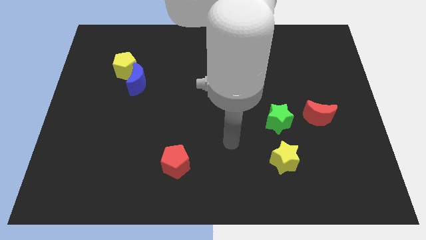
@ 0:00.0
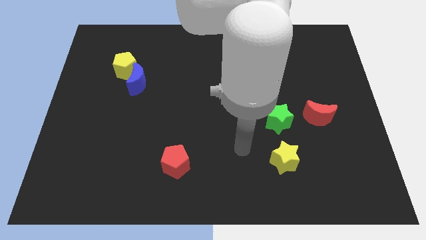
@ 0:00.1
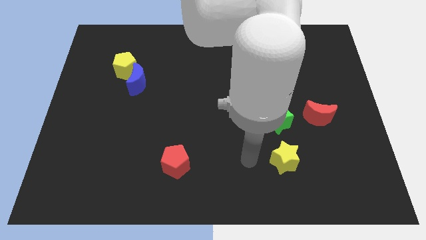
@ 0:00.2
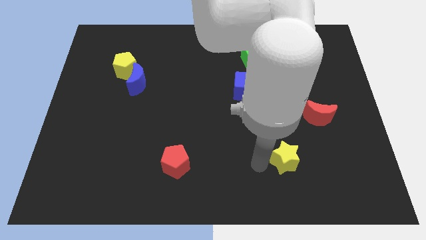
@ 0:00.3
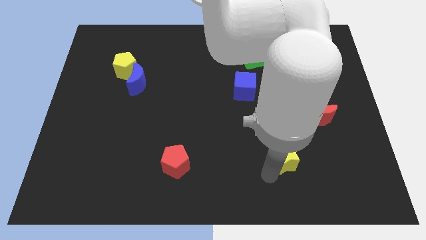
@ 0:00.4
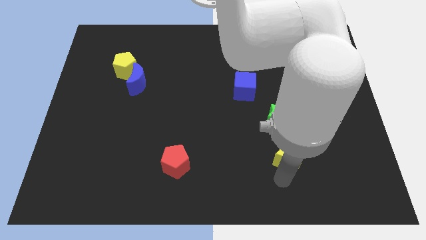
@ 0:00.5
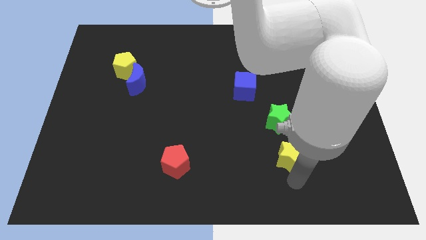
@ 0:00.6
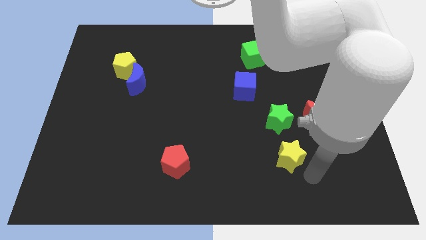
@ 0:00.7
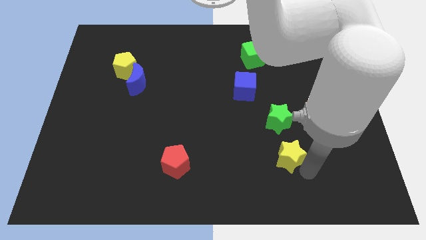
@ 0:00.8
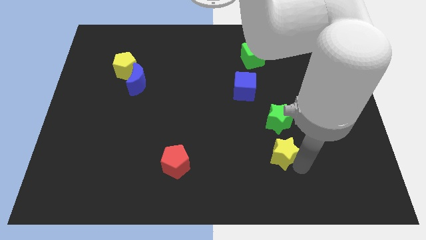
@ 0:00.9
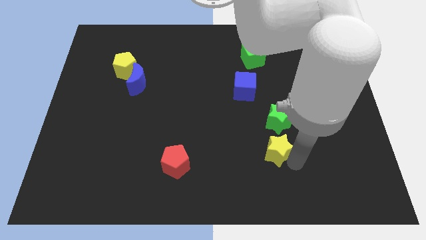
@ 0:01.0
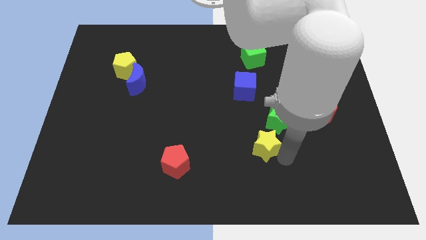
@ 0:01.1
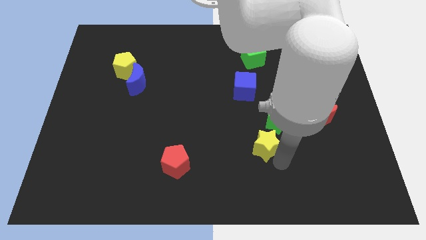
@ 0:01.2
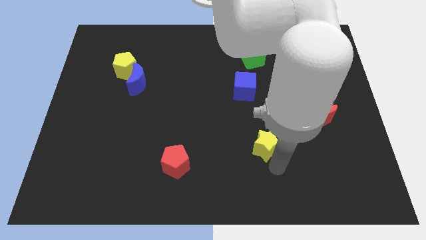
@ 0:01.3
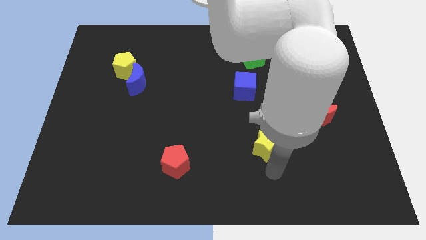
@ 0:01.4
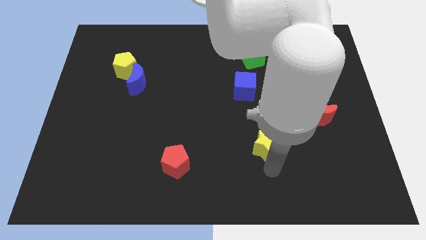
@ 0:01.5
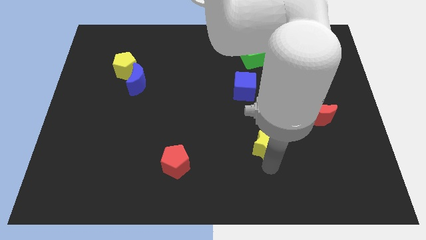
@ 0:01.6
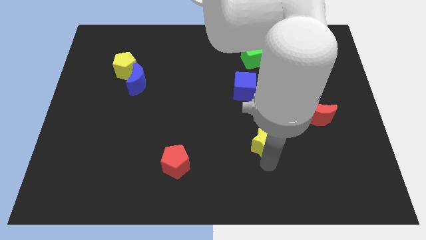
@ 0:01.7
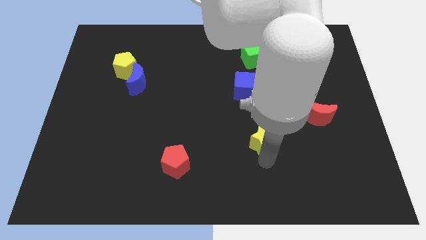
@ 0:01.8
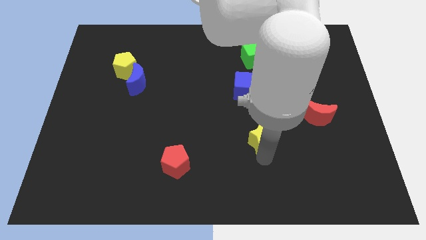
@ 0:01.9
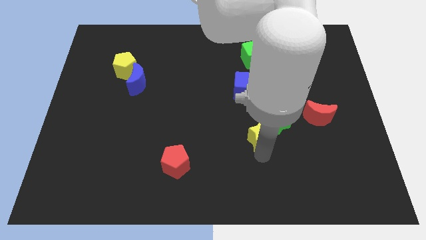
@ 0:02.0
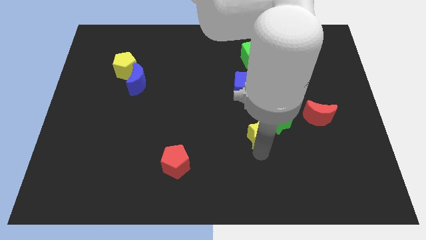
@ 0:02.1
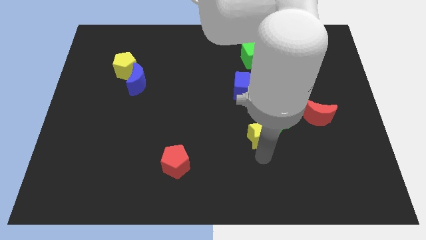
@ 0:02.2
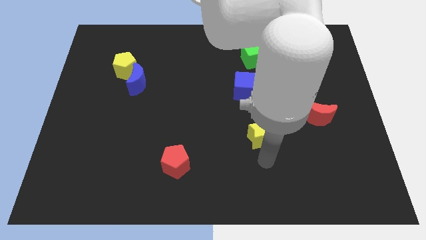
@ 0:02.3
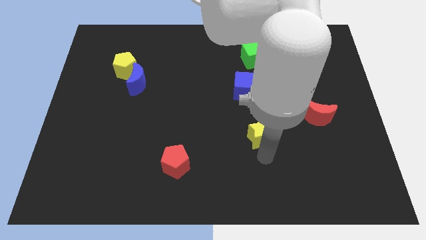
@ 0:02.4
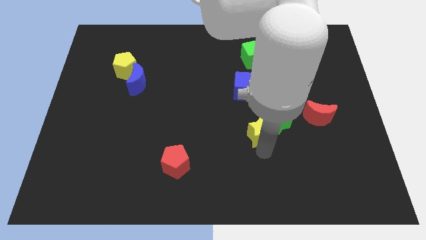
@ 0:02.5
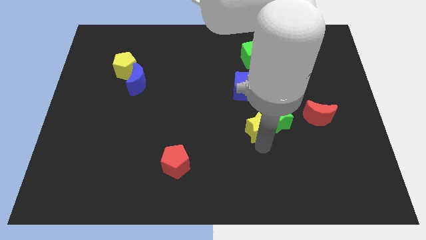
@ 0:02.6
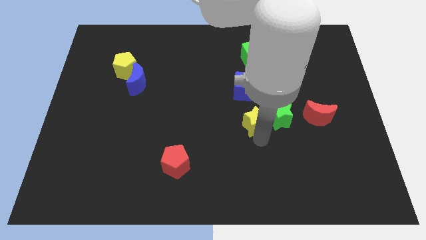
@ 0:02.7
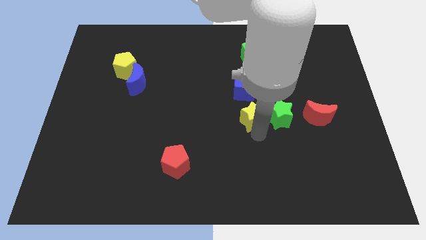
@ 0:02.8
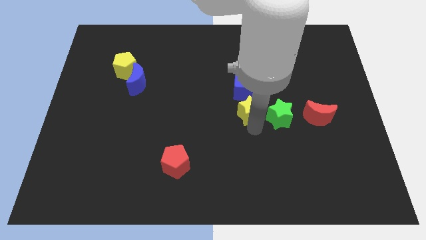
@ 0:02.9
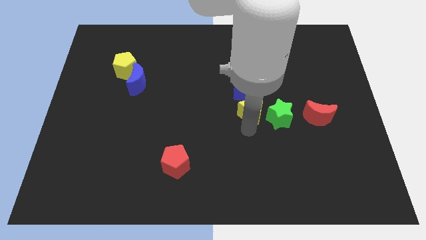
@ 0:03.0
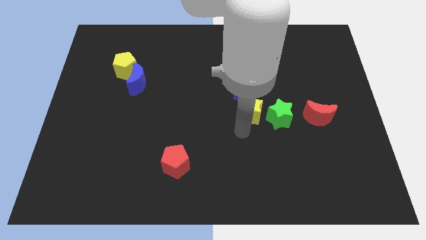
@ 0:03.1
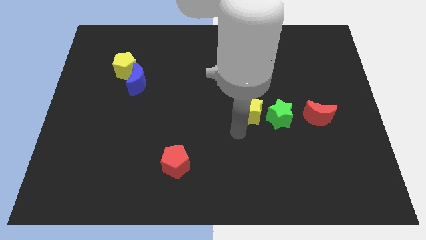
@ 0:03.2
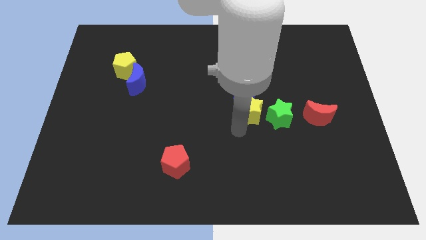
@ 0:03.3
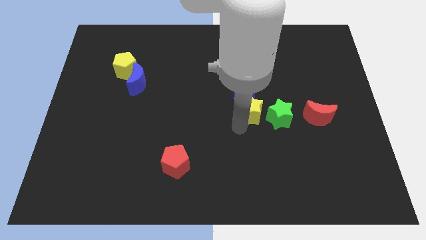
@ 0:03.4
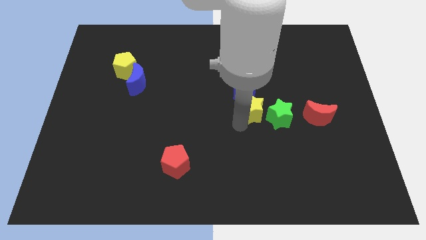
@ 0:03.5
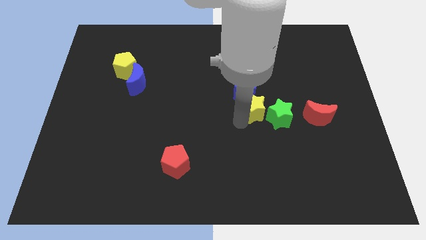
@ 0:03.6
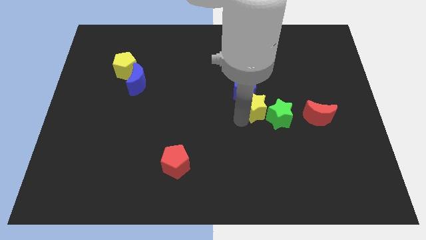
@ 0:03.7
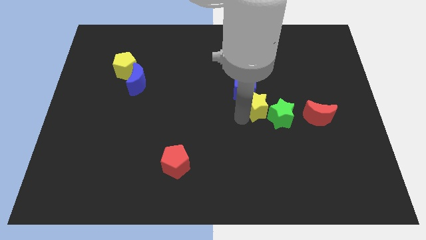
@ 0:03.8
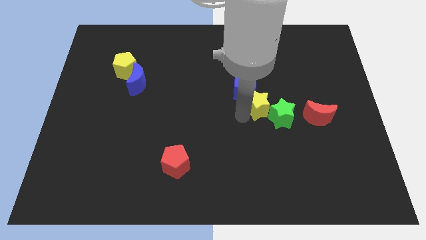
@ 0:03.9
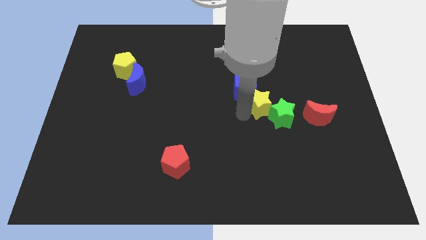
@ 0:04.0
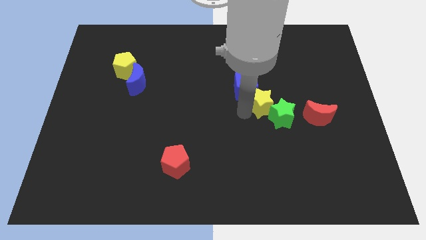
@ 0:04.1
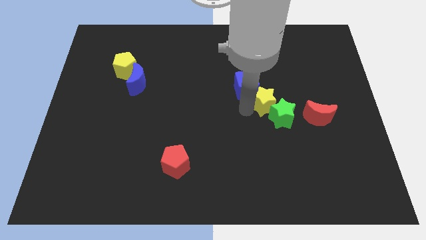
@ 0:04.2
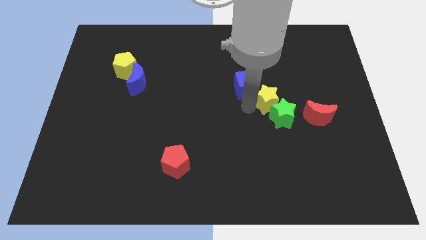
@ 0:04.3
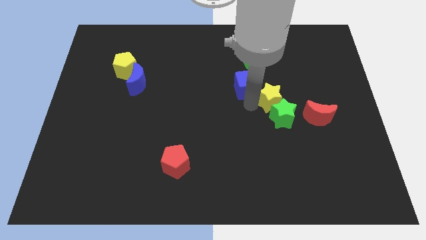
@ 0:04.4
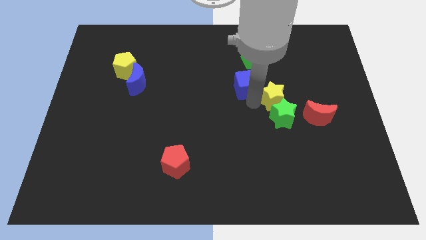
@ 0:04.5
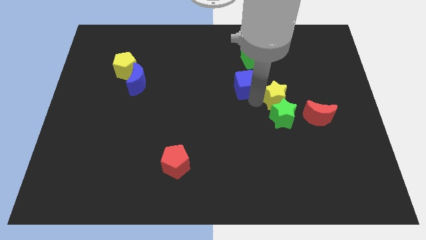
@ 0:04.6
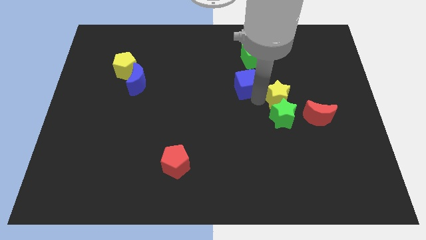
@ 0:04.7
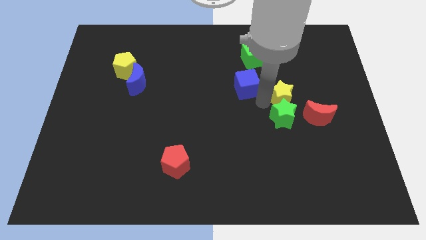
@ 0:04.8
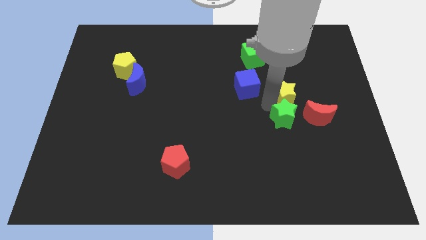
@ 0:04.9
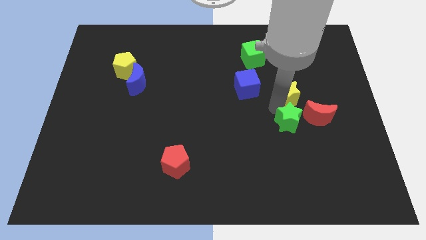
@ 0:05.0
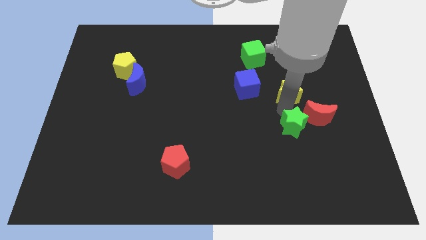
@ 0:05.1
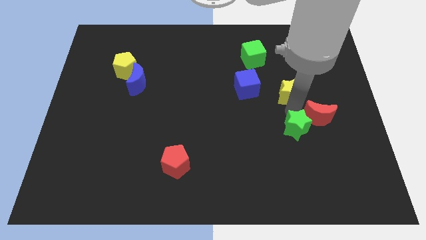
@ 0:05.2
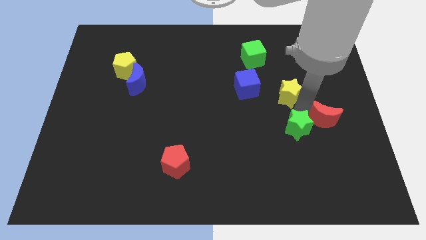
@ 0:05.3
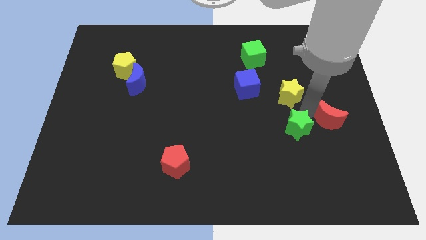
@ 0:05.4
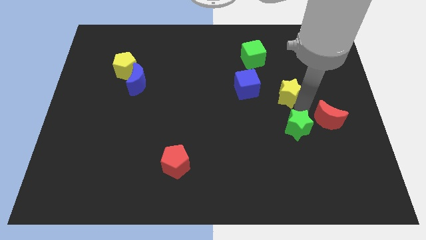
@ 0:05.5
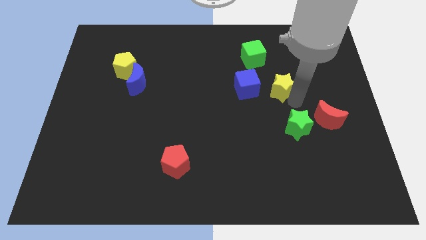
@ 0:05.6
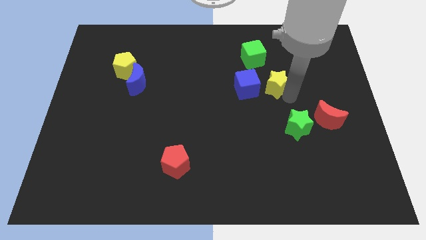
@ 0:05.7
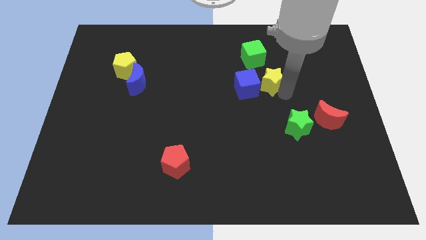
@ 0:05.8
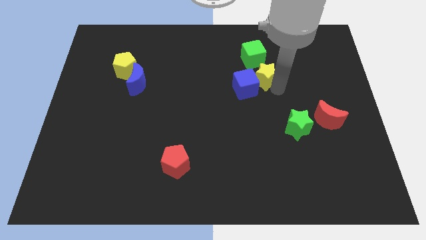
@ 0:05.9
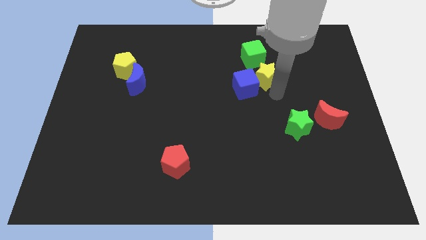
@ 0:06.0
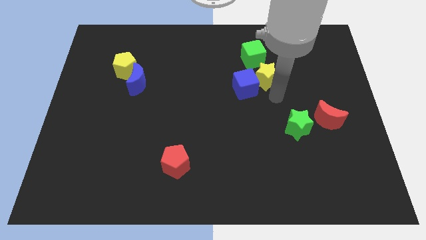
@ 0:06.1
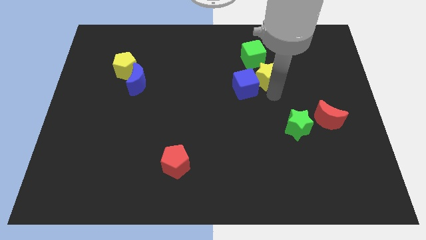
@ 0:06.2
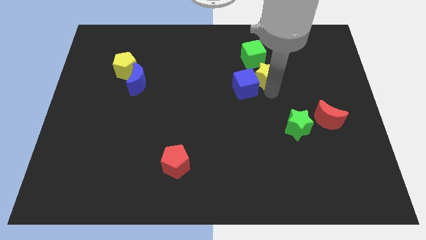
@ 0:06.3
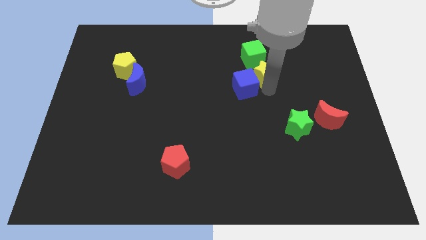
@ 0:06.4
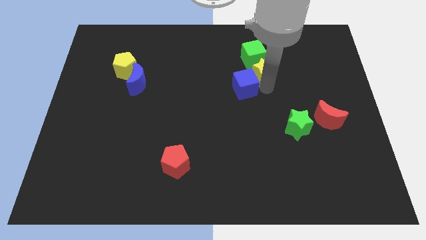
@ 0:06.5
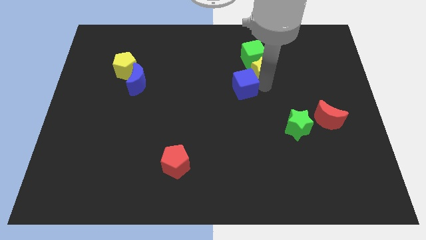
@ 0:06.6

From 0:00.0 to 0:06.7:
move the yellow star to the green cube
